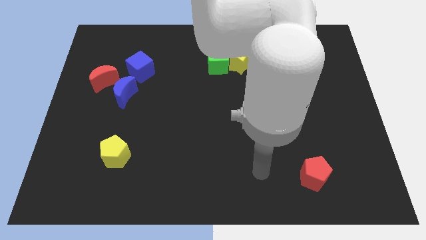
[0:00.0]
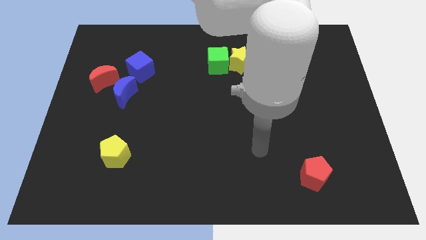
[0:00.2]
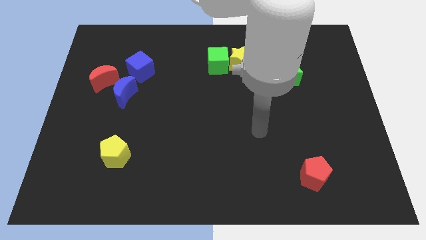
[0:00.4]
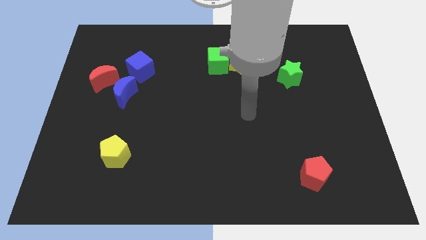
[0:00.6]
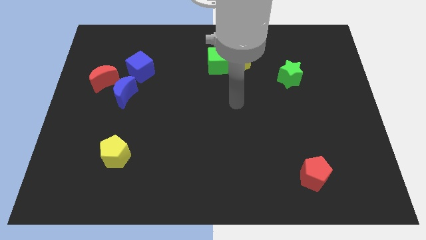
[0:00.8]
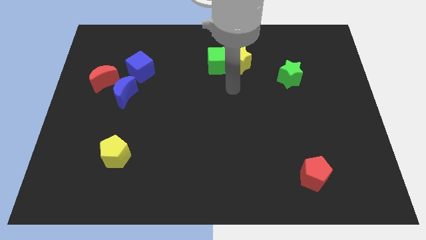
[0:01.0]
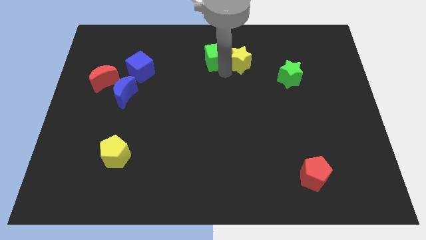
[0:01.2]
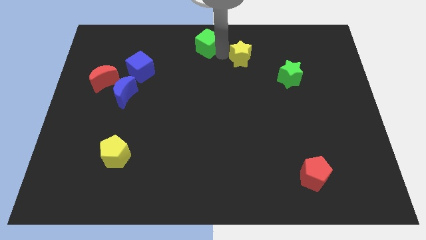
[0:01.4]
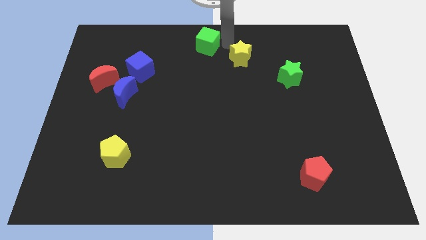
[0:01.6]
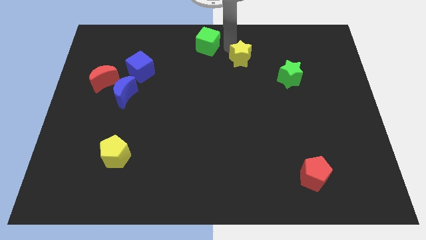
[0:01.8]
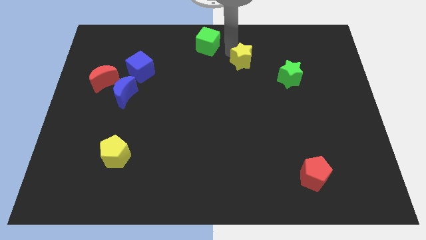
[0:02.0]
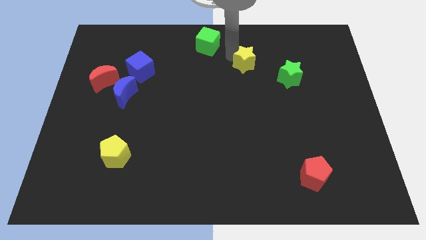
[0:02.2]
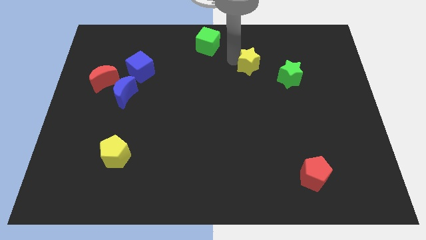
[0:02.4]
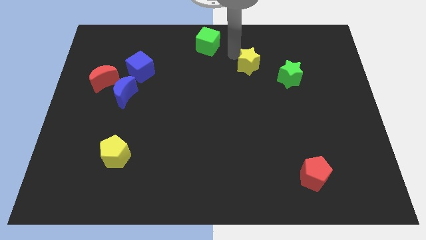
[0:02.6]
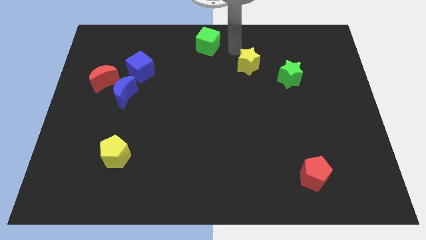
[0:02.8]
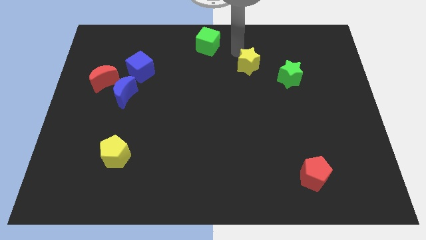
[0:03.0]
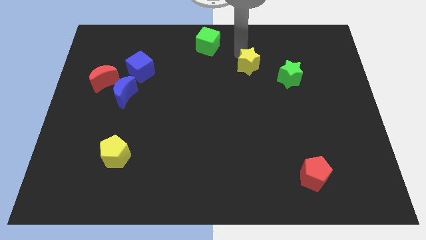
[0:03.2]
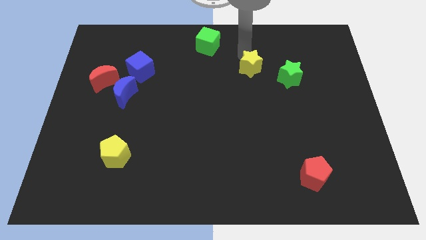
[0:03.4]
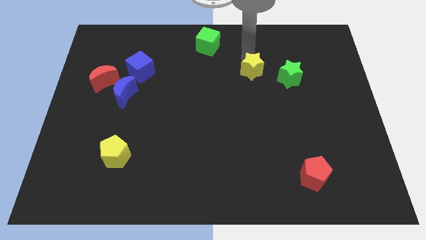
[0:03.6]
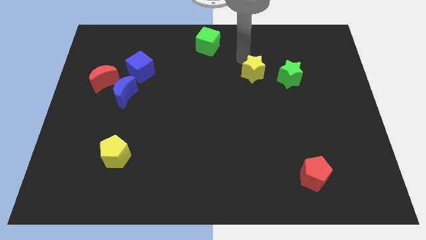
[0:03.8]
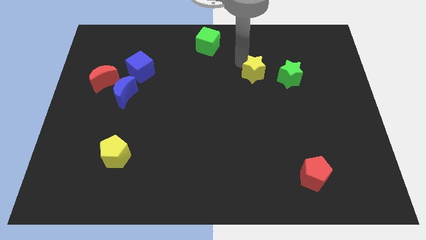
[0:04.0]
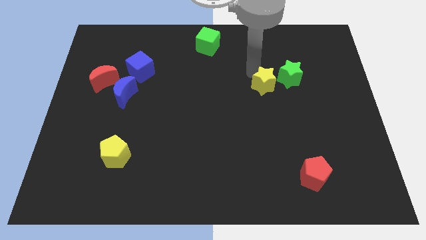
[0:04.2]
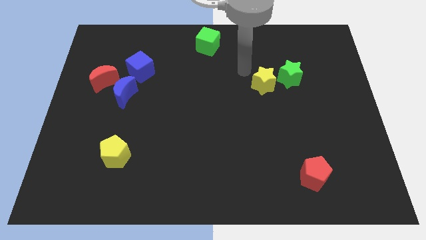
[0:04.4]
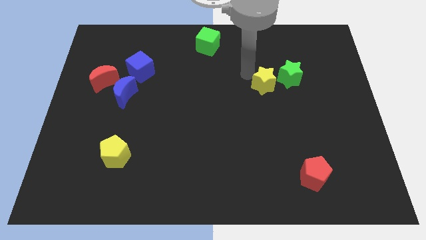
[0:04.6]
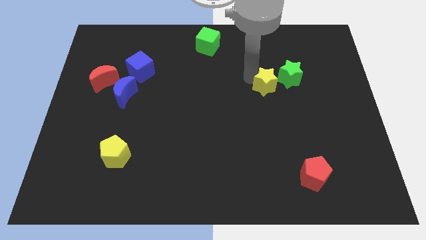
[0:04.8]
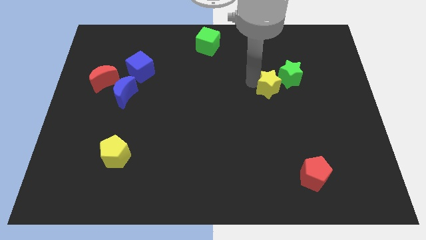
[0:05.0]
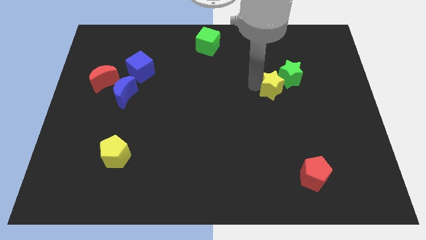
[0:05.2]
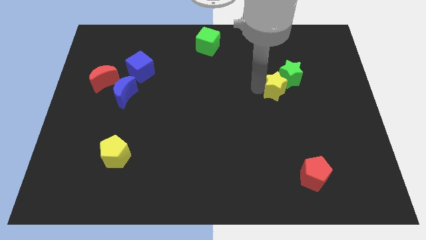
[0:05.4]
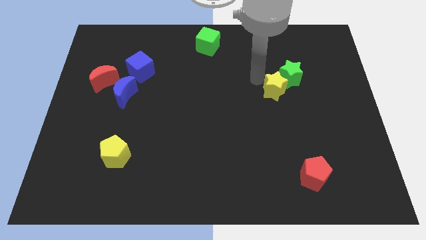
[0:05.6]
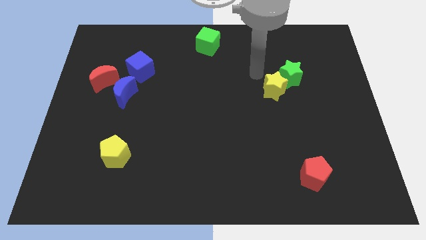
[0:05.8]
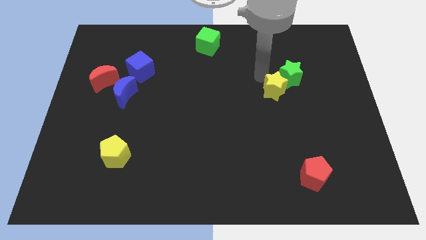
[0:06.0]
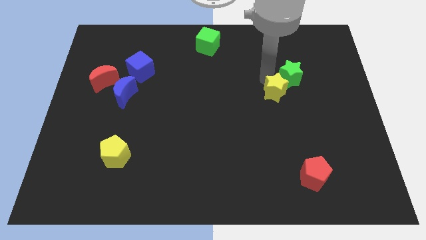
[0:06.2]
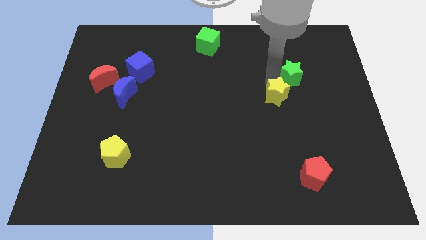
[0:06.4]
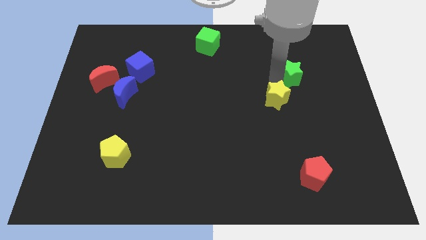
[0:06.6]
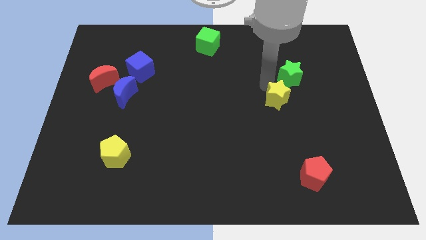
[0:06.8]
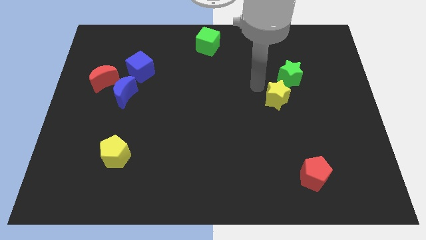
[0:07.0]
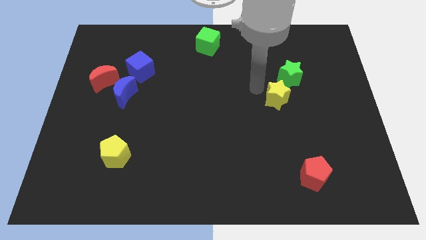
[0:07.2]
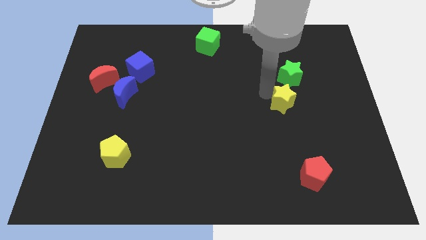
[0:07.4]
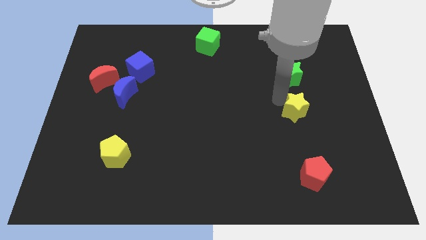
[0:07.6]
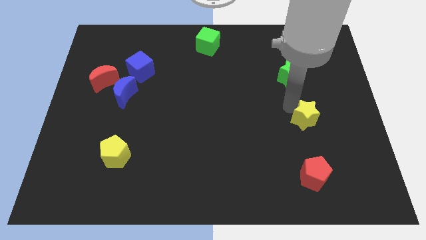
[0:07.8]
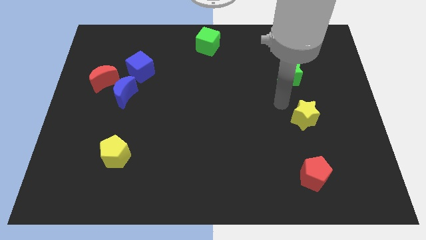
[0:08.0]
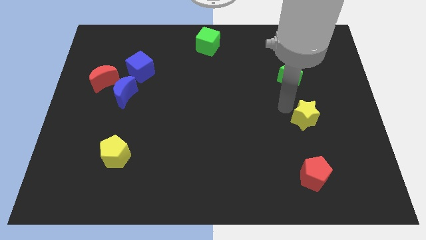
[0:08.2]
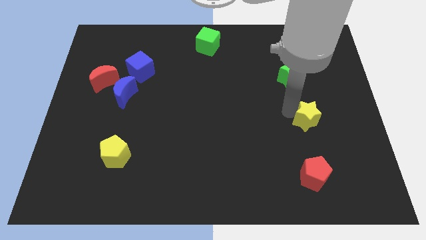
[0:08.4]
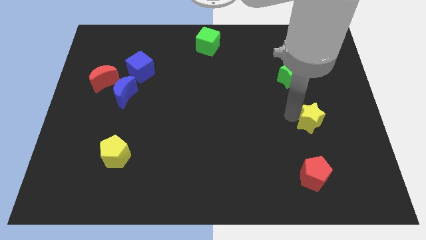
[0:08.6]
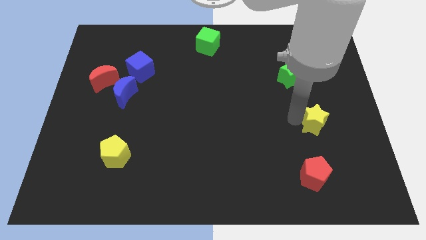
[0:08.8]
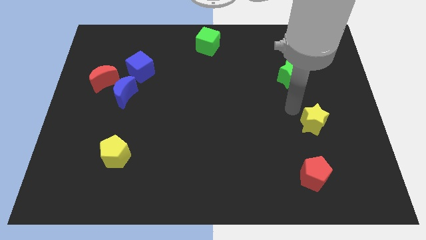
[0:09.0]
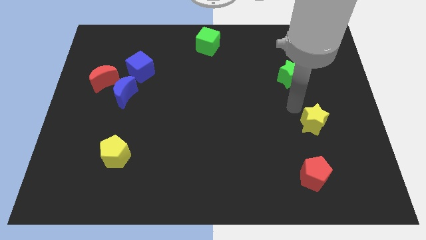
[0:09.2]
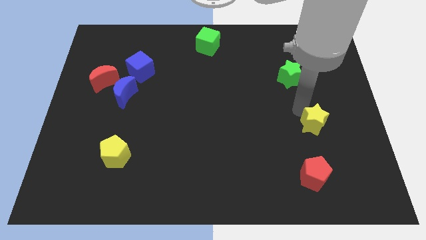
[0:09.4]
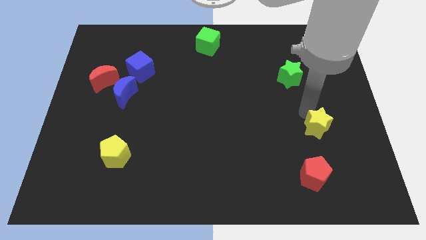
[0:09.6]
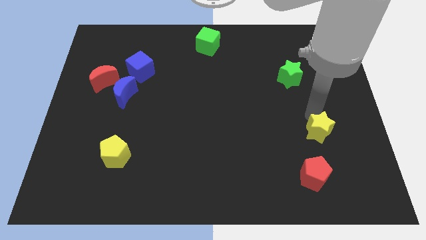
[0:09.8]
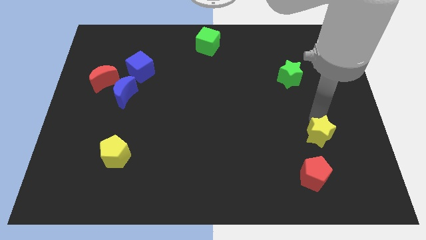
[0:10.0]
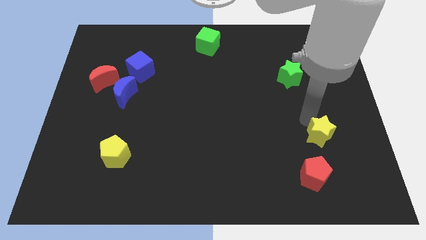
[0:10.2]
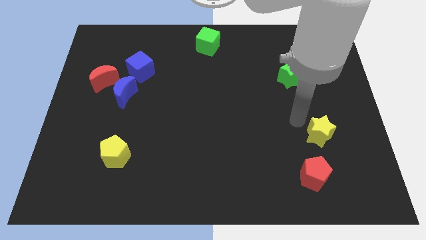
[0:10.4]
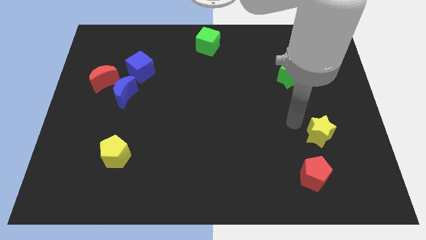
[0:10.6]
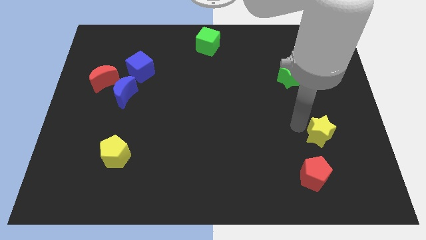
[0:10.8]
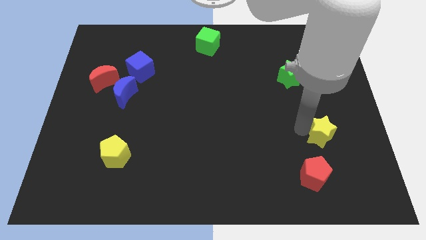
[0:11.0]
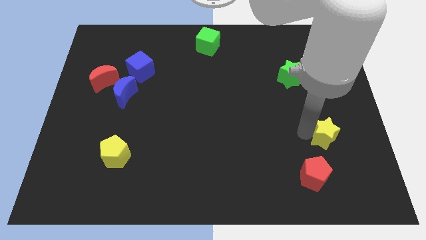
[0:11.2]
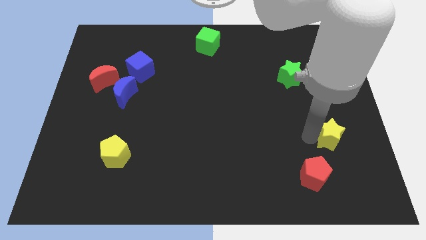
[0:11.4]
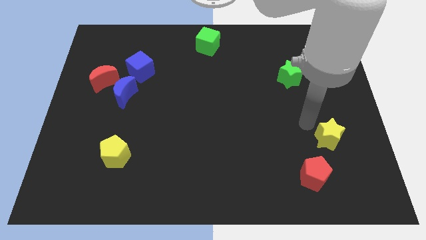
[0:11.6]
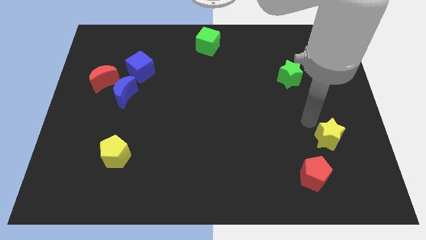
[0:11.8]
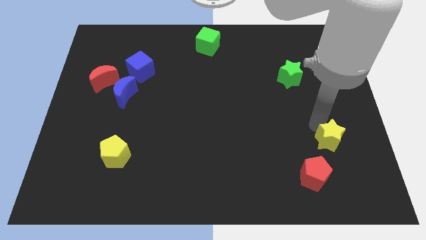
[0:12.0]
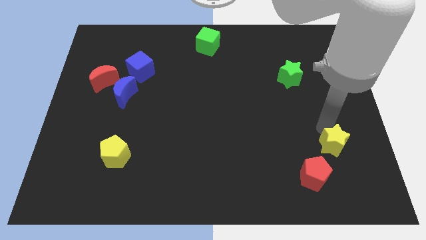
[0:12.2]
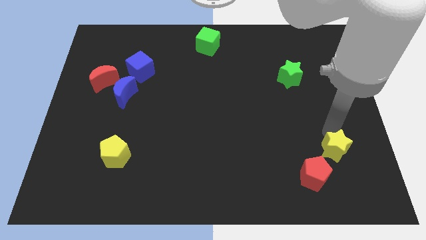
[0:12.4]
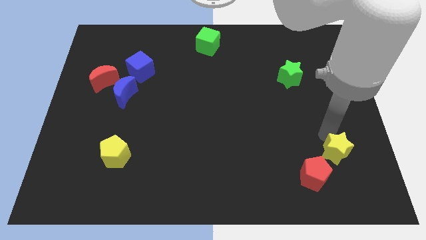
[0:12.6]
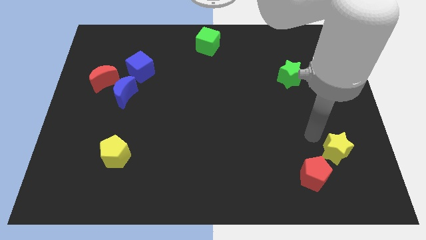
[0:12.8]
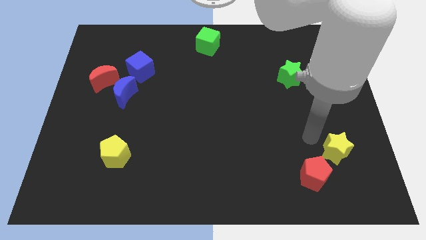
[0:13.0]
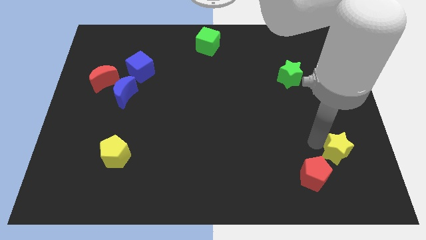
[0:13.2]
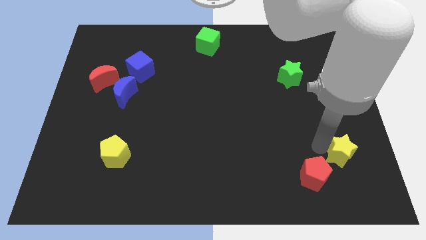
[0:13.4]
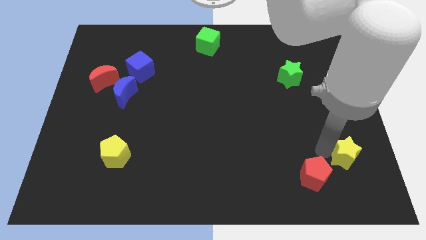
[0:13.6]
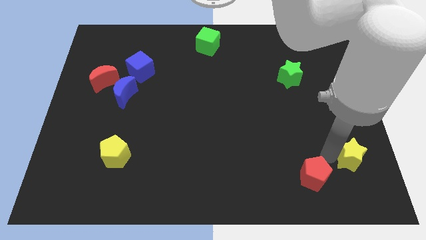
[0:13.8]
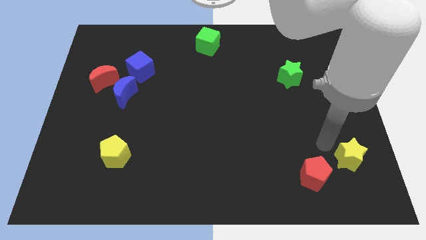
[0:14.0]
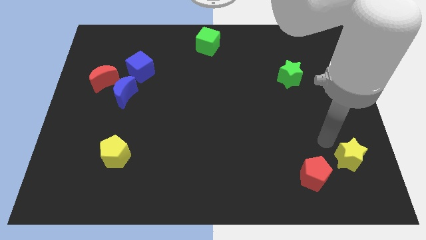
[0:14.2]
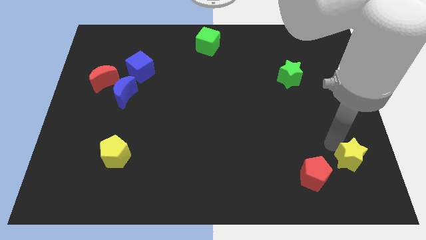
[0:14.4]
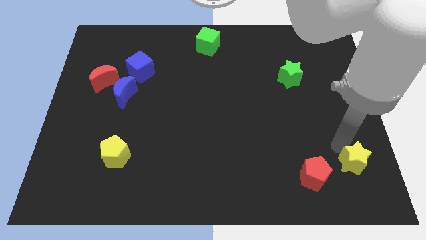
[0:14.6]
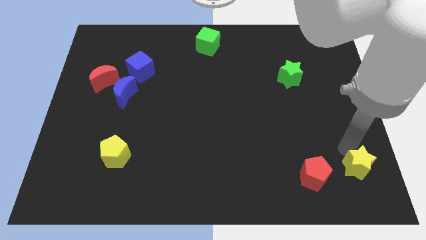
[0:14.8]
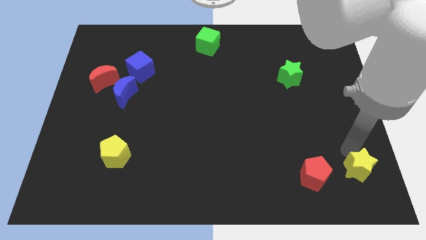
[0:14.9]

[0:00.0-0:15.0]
put the yellow star to the bottom right corner
